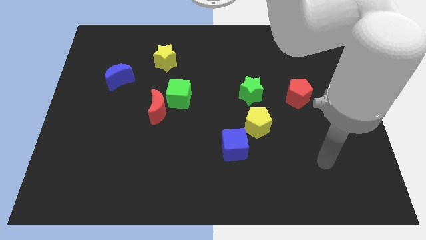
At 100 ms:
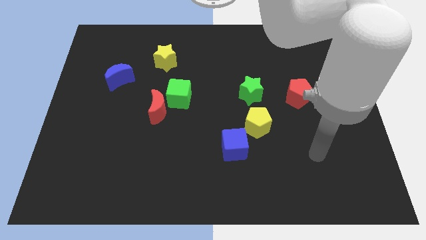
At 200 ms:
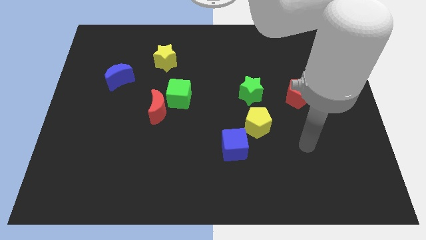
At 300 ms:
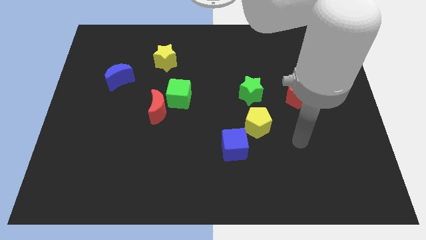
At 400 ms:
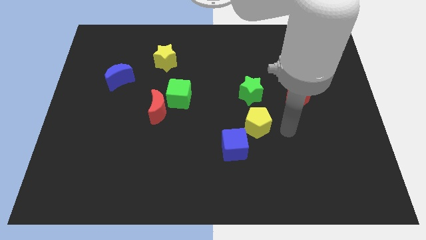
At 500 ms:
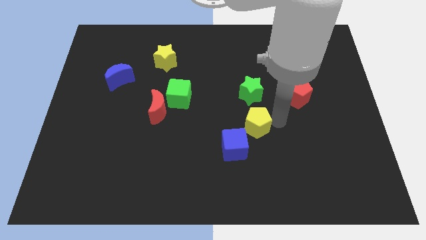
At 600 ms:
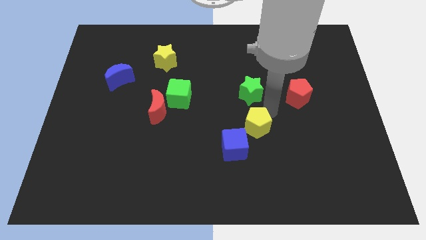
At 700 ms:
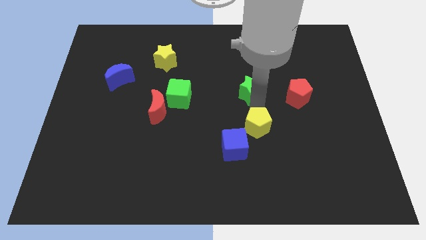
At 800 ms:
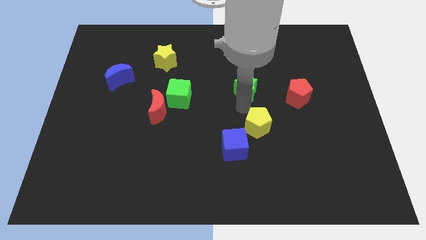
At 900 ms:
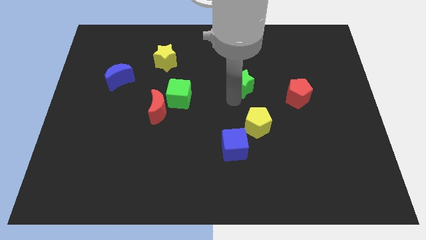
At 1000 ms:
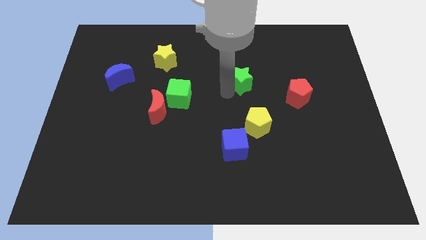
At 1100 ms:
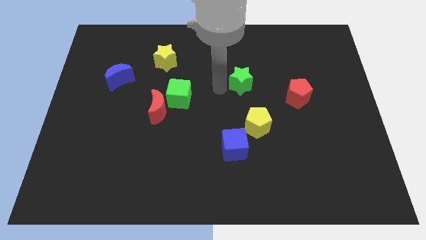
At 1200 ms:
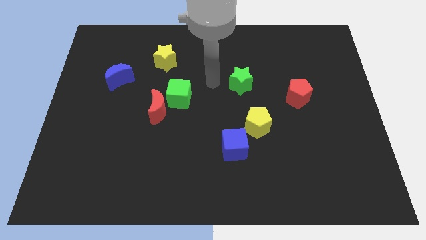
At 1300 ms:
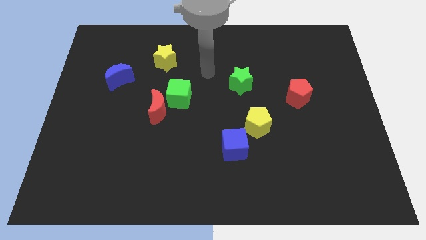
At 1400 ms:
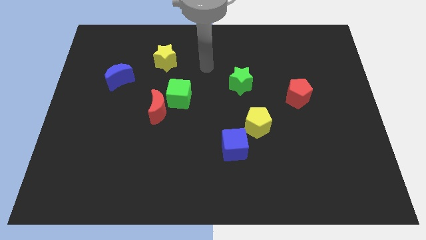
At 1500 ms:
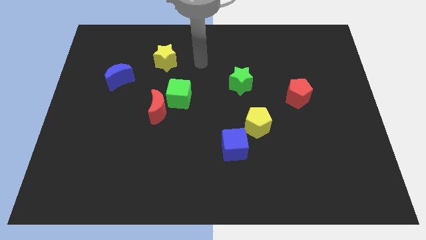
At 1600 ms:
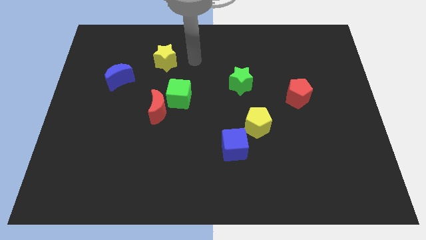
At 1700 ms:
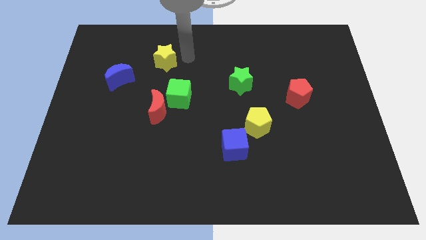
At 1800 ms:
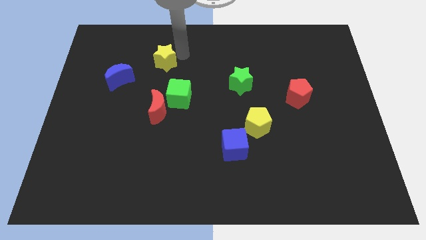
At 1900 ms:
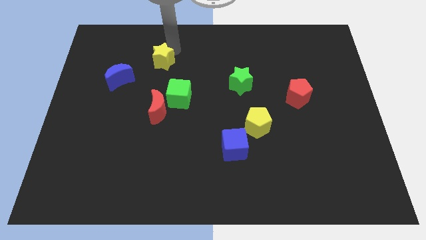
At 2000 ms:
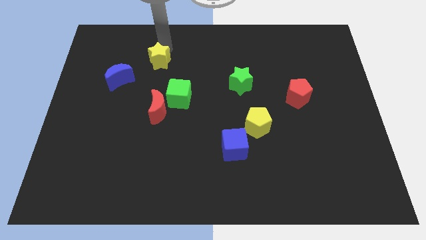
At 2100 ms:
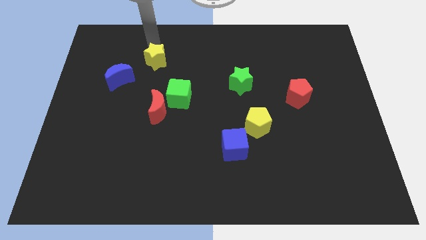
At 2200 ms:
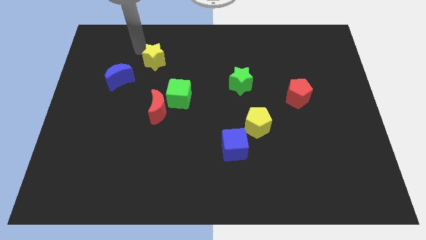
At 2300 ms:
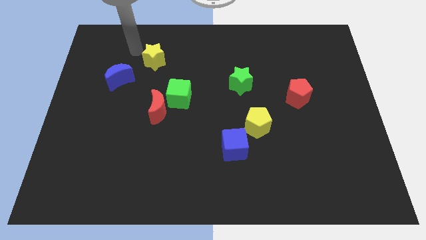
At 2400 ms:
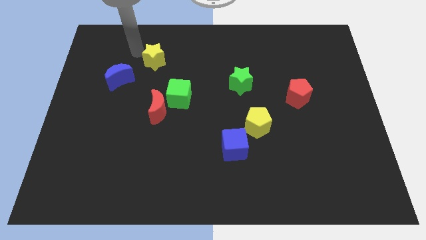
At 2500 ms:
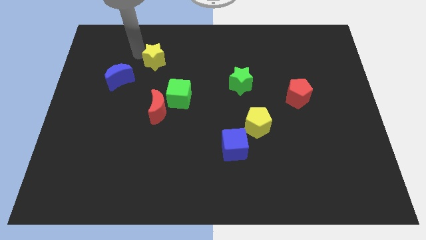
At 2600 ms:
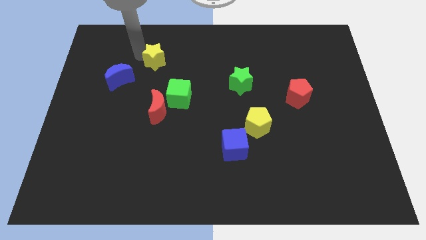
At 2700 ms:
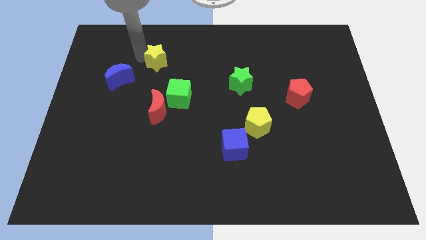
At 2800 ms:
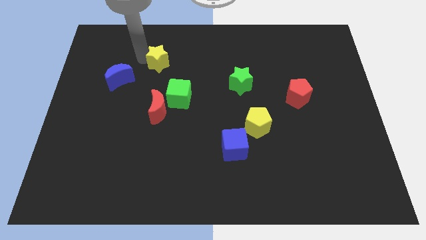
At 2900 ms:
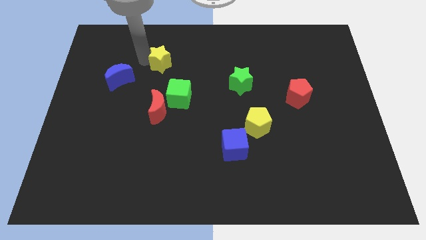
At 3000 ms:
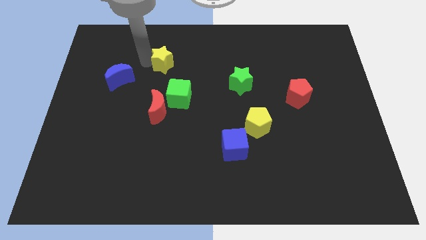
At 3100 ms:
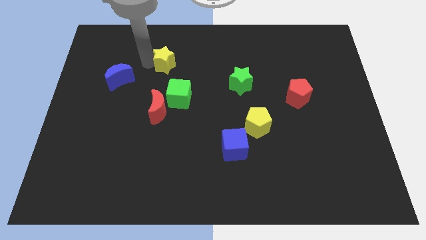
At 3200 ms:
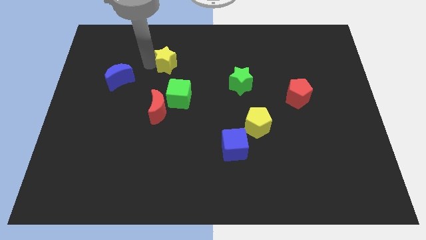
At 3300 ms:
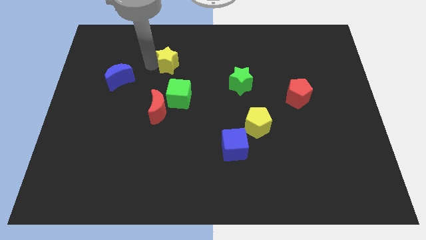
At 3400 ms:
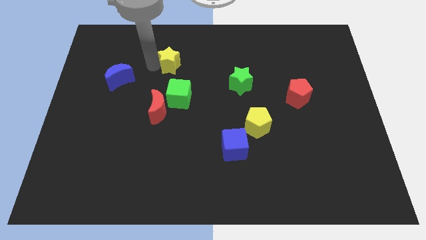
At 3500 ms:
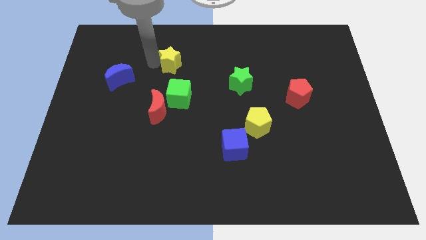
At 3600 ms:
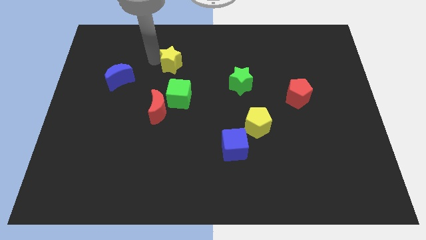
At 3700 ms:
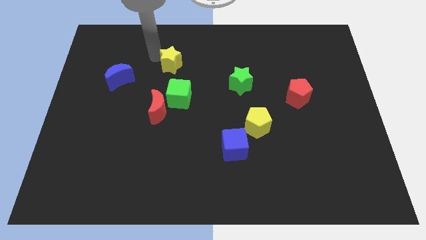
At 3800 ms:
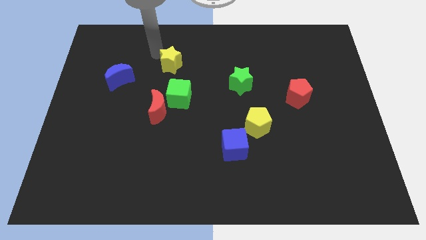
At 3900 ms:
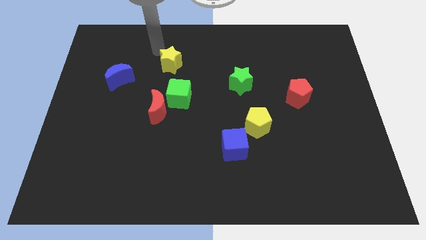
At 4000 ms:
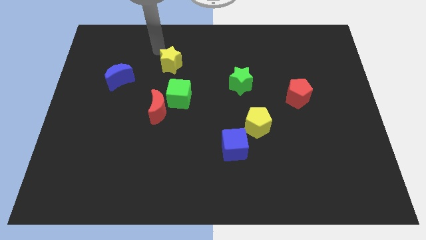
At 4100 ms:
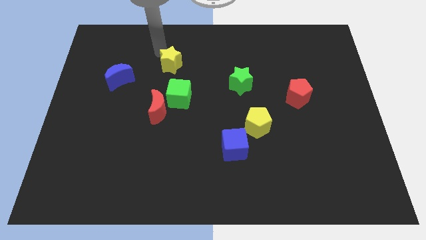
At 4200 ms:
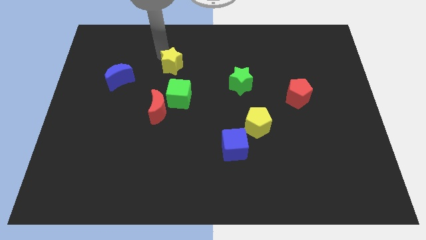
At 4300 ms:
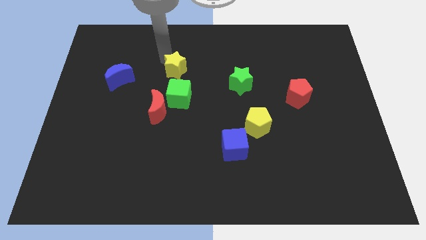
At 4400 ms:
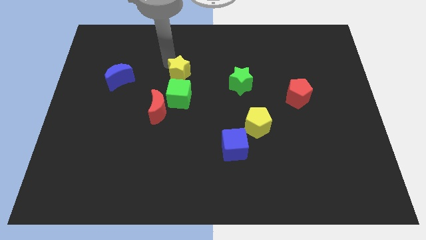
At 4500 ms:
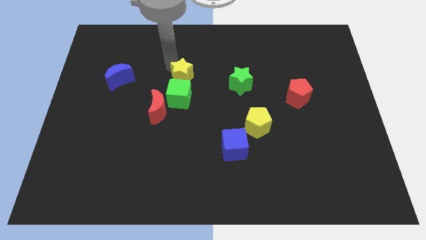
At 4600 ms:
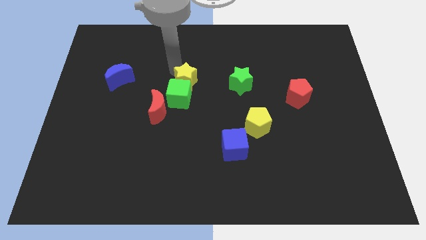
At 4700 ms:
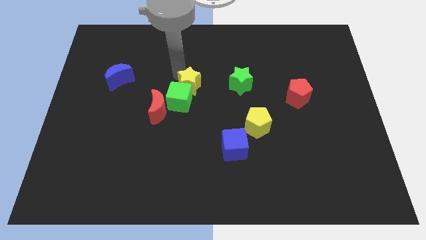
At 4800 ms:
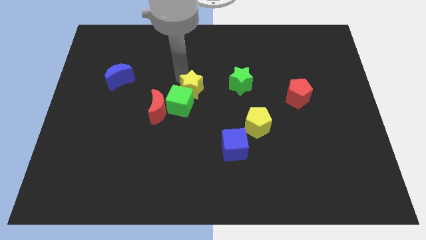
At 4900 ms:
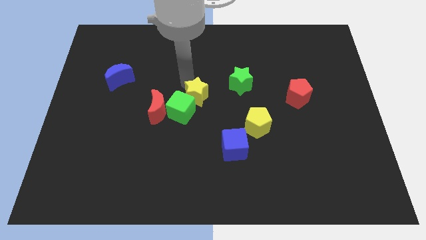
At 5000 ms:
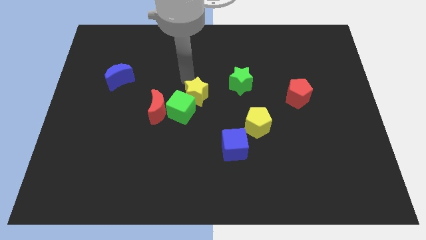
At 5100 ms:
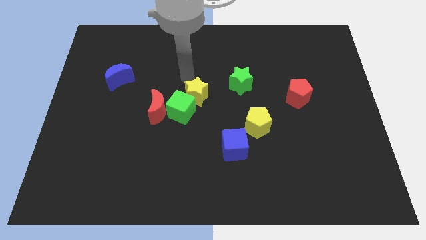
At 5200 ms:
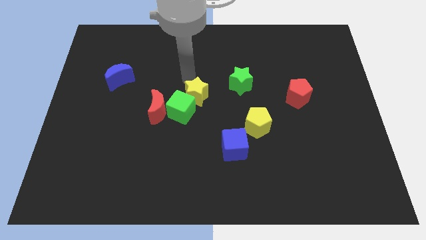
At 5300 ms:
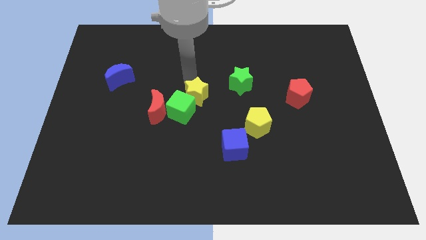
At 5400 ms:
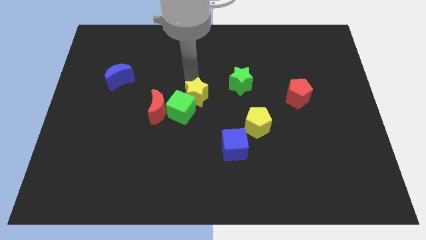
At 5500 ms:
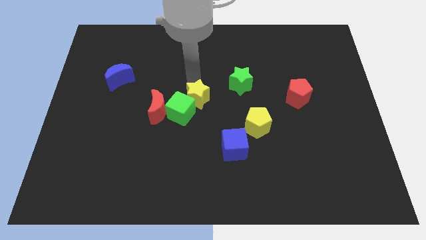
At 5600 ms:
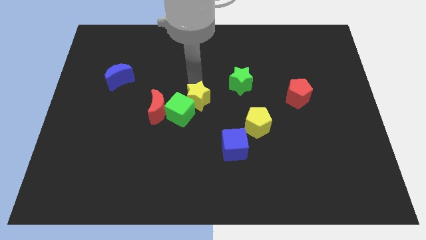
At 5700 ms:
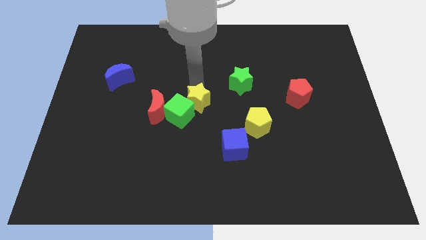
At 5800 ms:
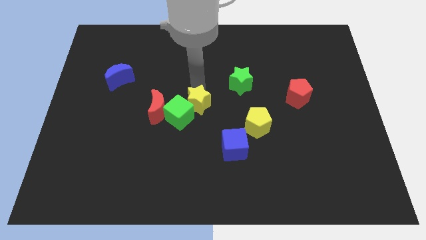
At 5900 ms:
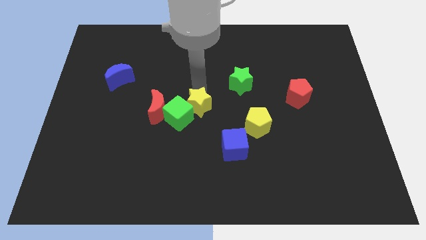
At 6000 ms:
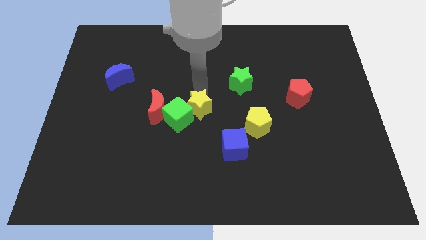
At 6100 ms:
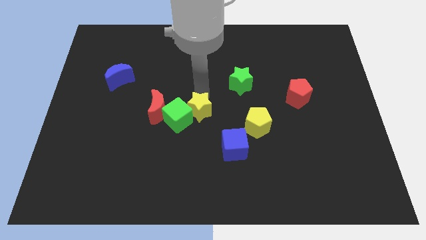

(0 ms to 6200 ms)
push the yellow star to the top left side of the blue cube

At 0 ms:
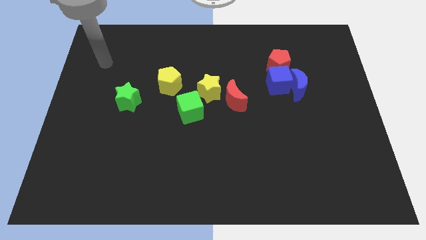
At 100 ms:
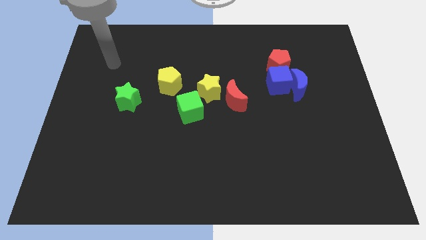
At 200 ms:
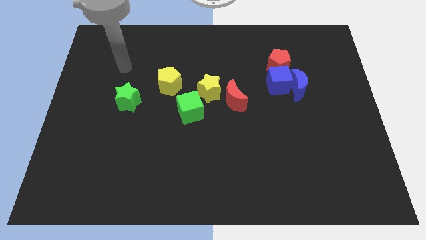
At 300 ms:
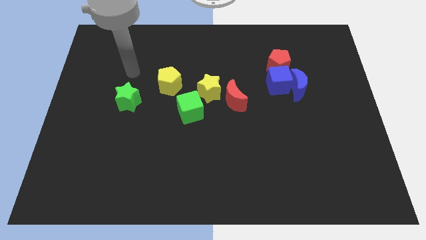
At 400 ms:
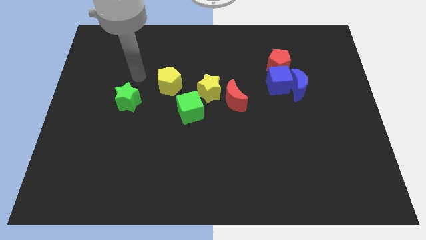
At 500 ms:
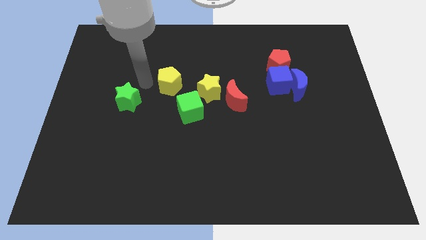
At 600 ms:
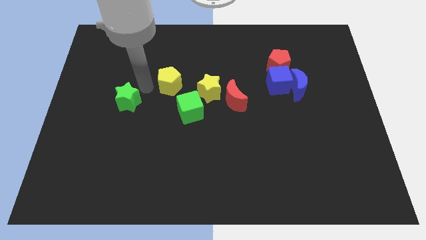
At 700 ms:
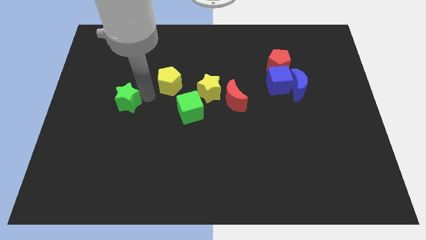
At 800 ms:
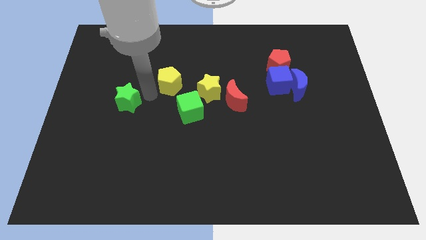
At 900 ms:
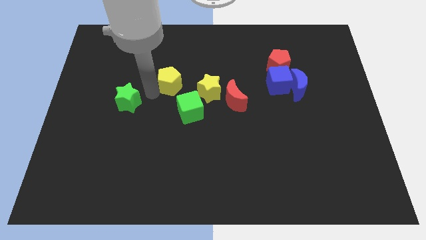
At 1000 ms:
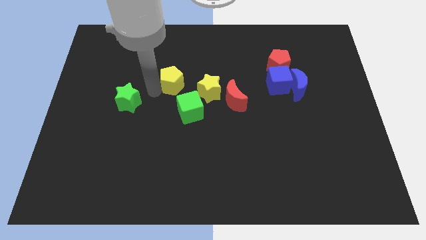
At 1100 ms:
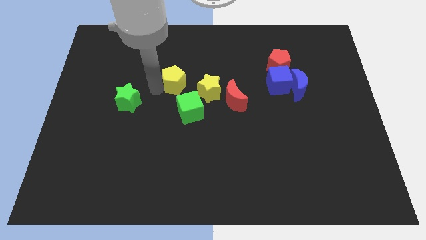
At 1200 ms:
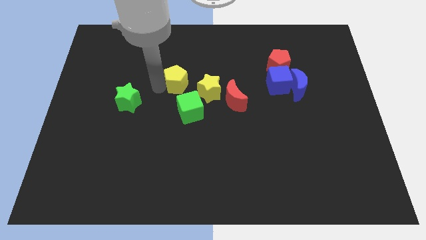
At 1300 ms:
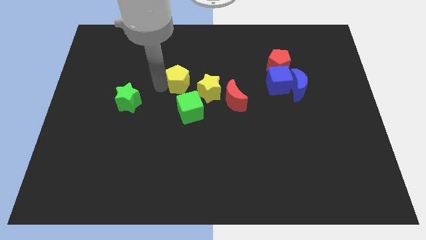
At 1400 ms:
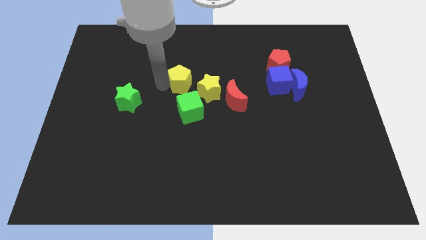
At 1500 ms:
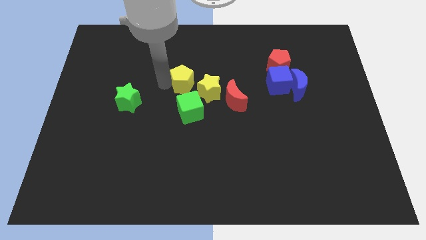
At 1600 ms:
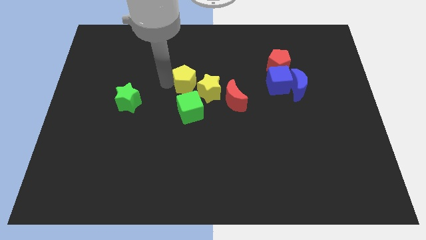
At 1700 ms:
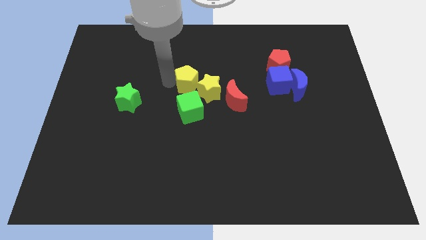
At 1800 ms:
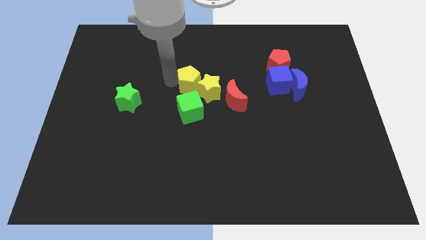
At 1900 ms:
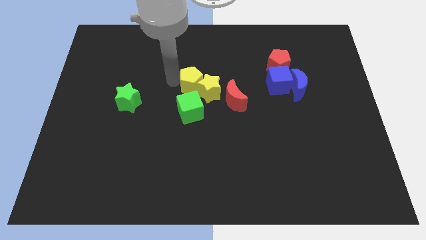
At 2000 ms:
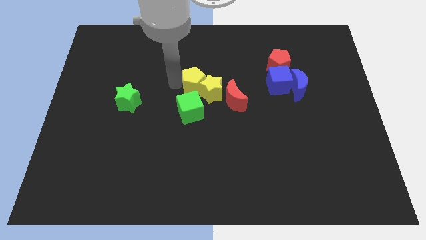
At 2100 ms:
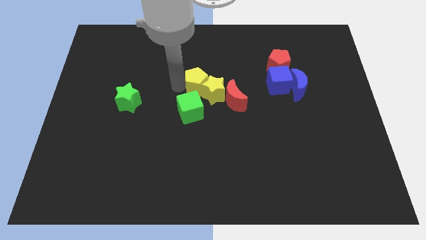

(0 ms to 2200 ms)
push the yellow pentagon to the top of the yellow star
